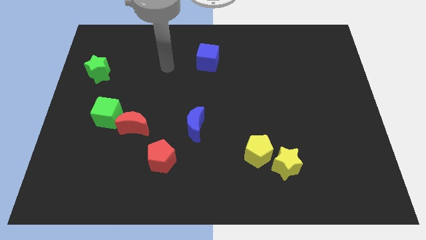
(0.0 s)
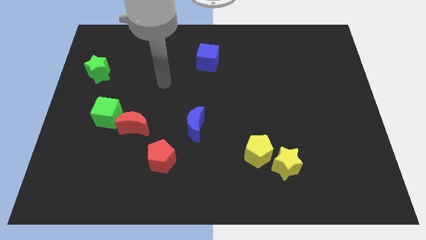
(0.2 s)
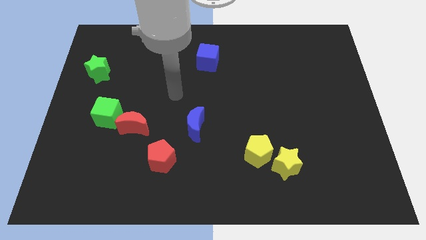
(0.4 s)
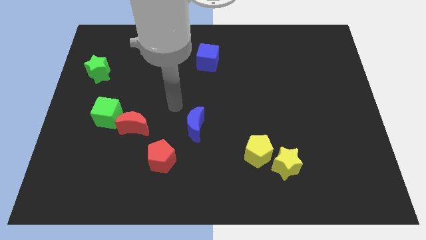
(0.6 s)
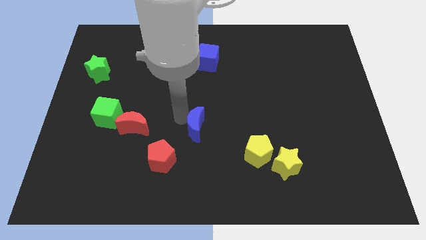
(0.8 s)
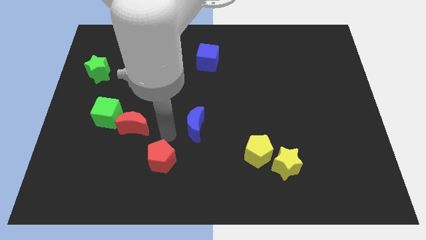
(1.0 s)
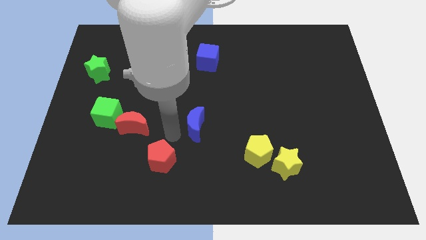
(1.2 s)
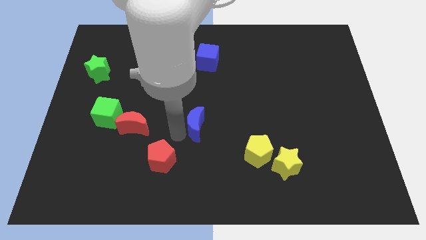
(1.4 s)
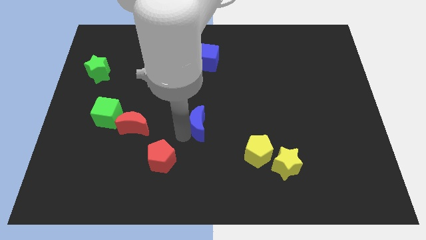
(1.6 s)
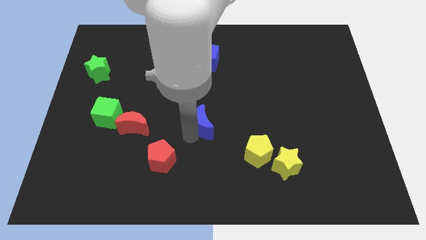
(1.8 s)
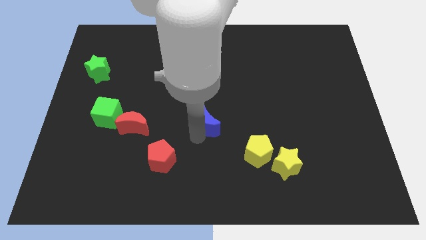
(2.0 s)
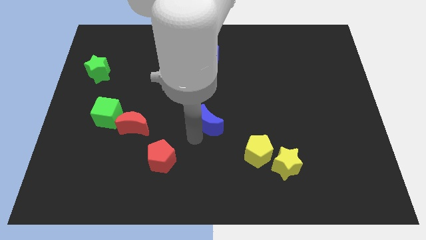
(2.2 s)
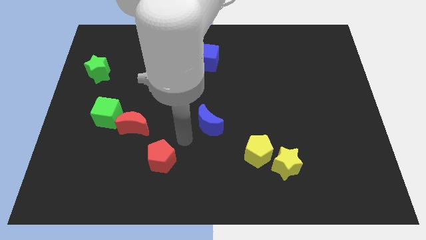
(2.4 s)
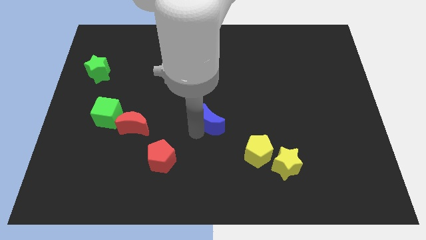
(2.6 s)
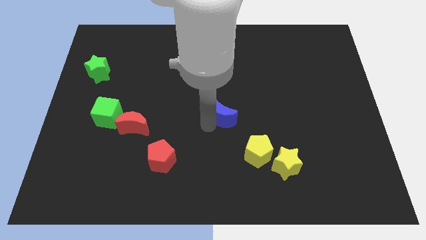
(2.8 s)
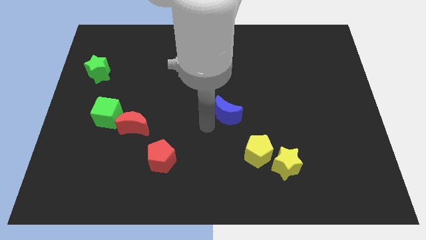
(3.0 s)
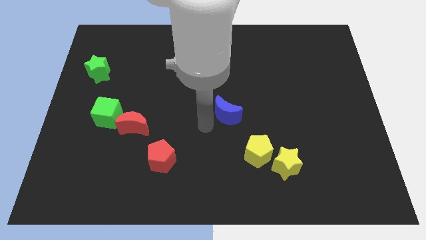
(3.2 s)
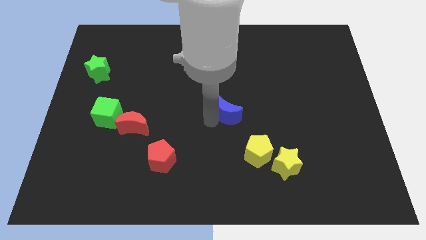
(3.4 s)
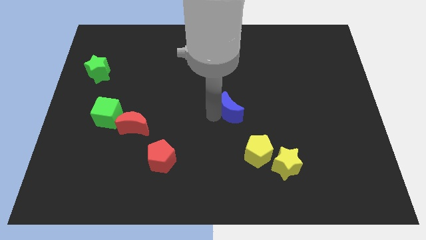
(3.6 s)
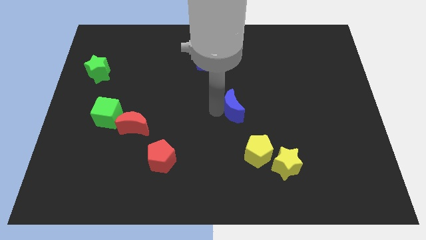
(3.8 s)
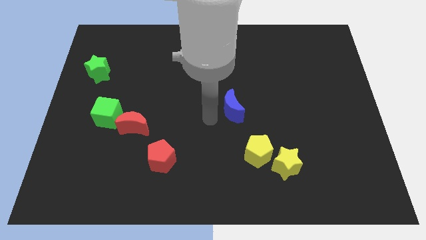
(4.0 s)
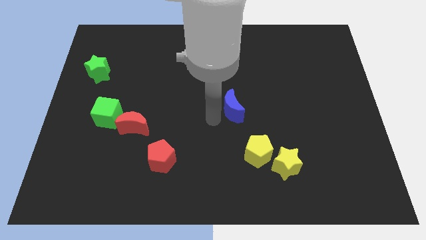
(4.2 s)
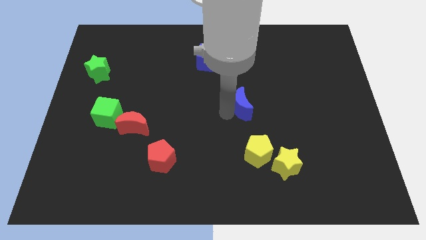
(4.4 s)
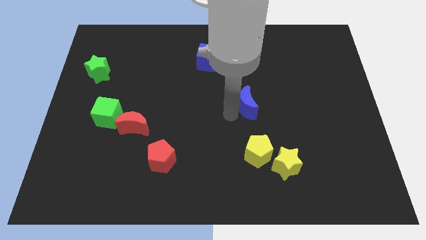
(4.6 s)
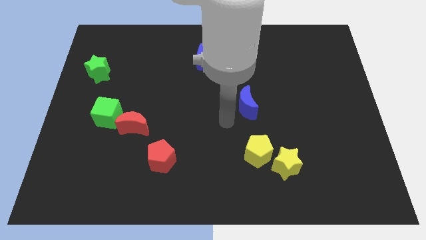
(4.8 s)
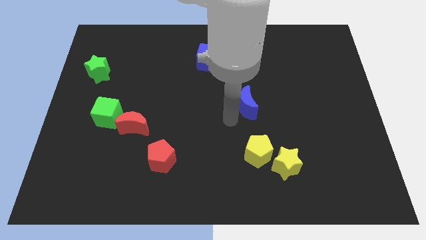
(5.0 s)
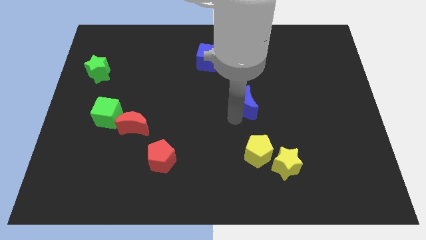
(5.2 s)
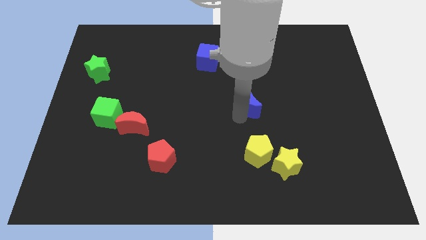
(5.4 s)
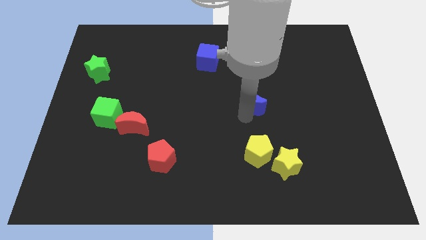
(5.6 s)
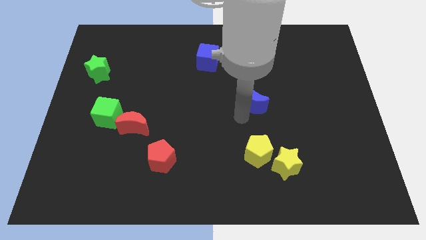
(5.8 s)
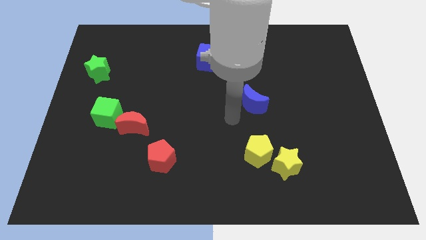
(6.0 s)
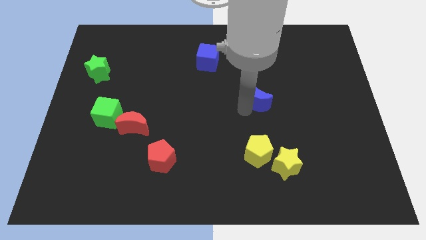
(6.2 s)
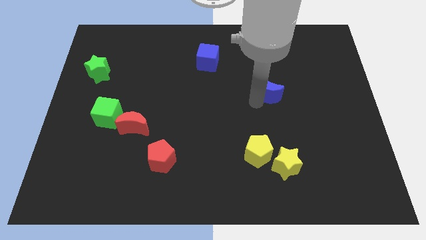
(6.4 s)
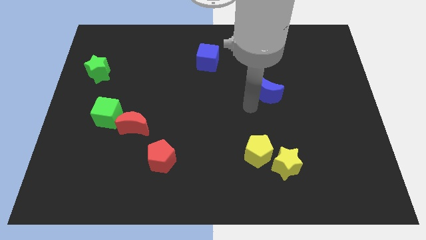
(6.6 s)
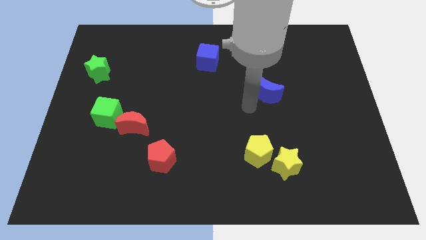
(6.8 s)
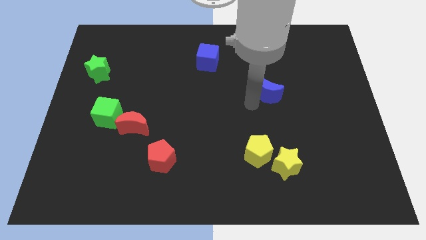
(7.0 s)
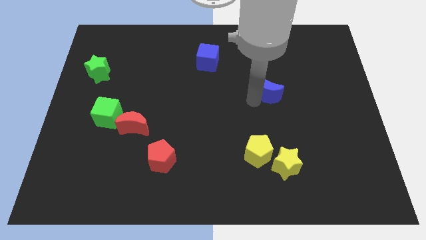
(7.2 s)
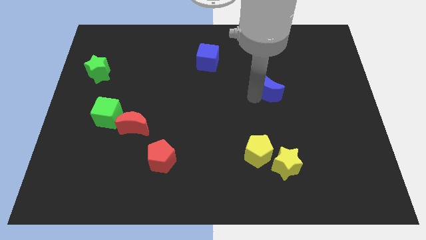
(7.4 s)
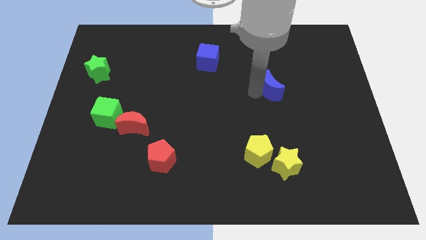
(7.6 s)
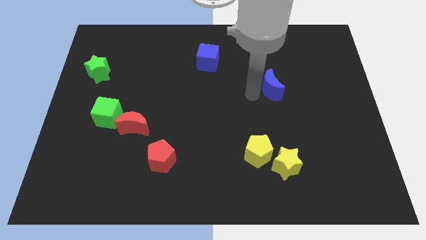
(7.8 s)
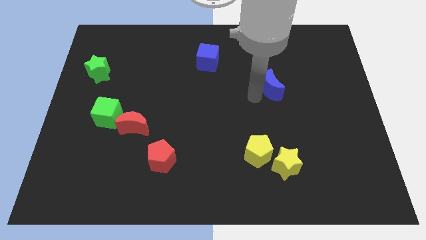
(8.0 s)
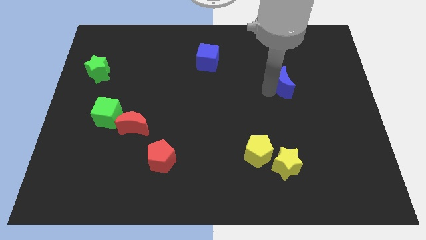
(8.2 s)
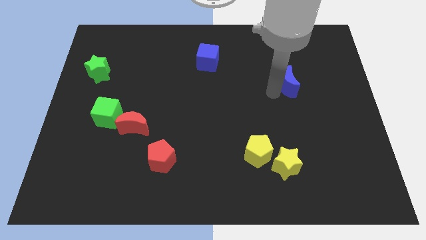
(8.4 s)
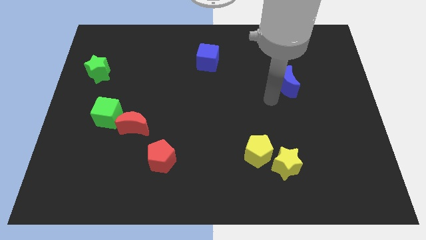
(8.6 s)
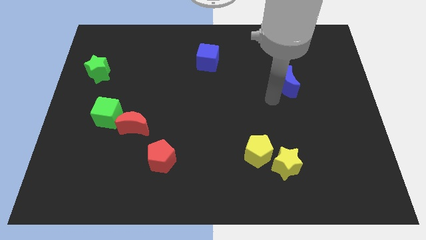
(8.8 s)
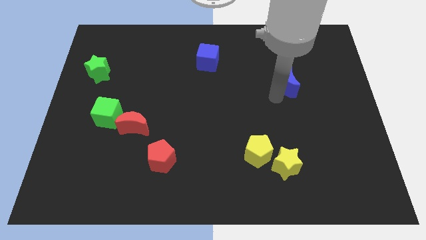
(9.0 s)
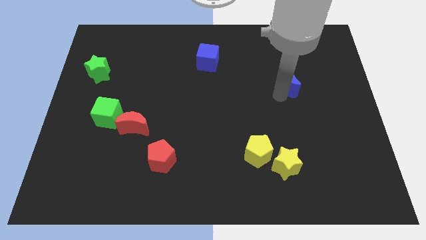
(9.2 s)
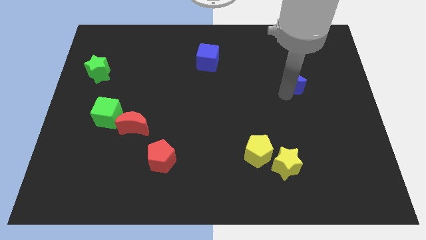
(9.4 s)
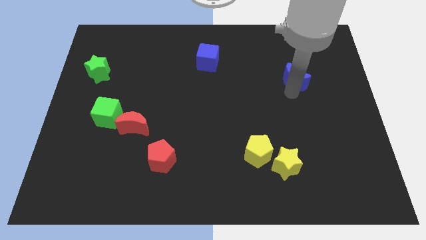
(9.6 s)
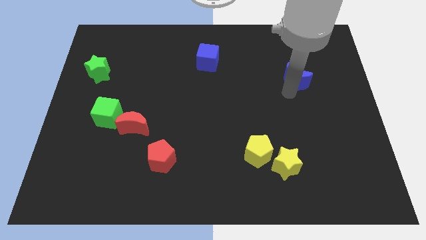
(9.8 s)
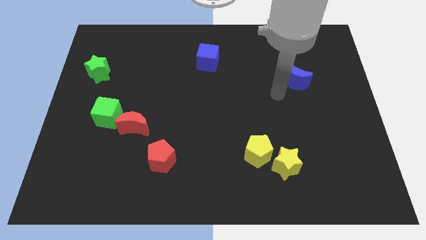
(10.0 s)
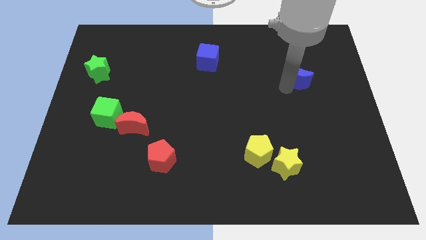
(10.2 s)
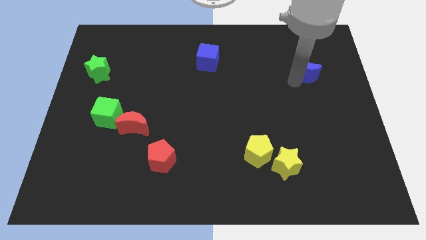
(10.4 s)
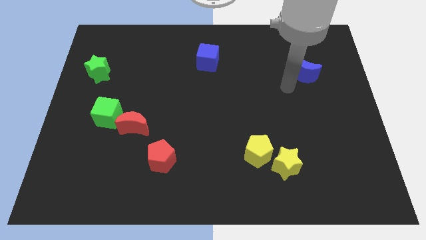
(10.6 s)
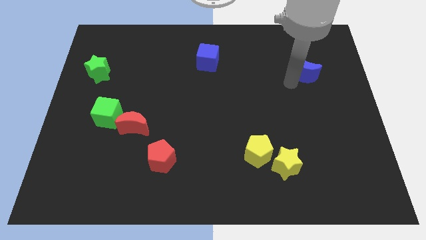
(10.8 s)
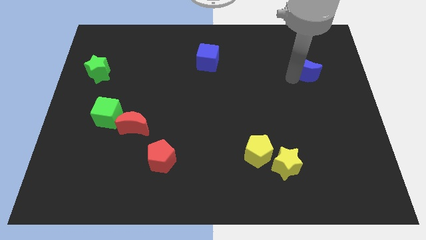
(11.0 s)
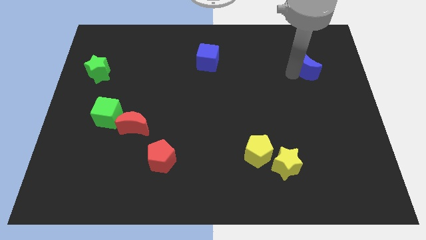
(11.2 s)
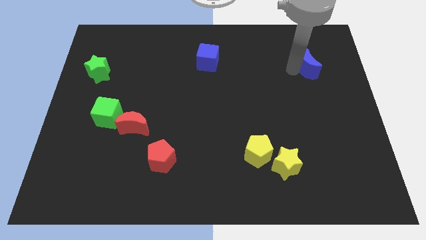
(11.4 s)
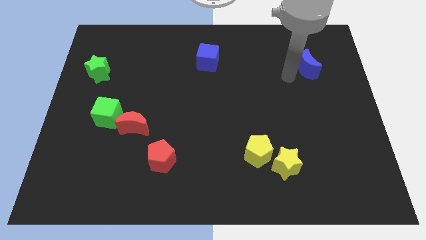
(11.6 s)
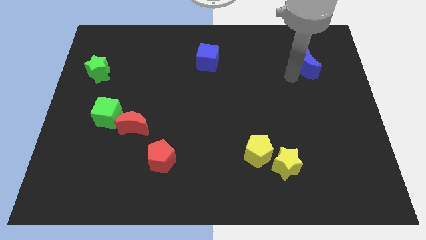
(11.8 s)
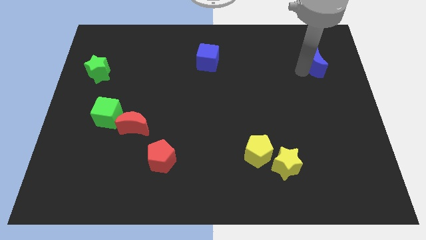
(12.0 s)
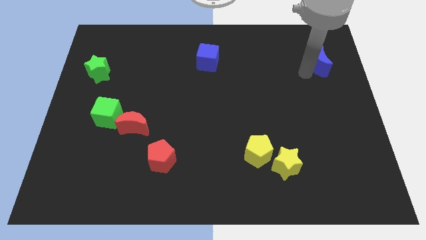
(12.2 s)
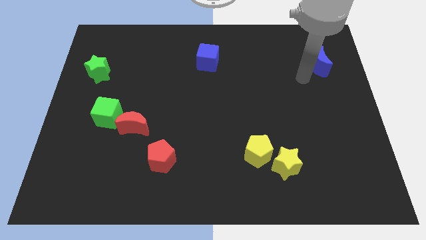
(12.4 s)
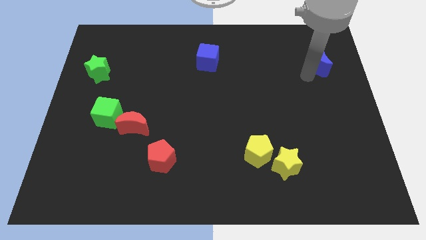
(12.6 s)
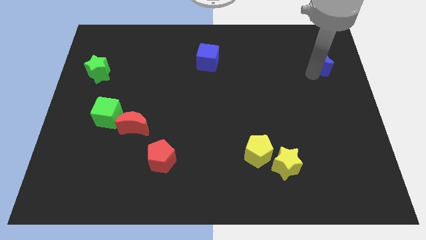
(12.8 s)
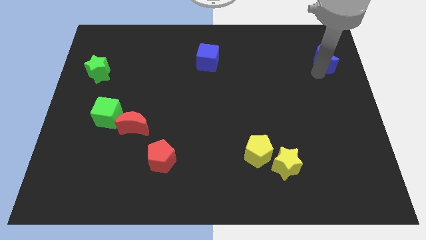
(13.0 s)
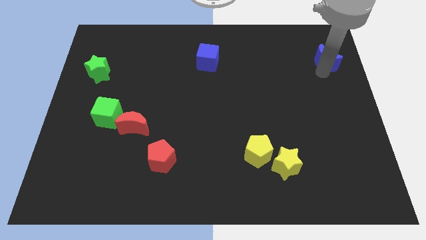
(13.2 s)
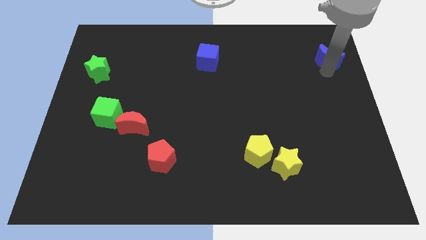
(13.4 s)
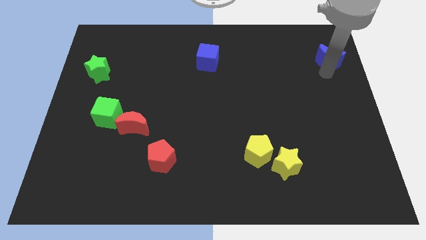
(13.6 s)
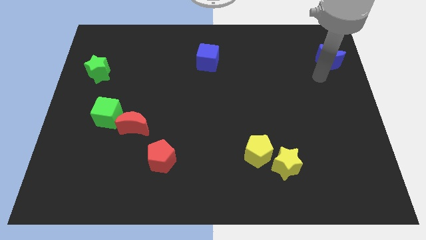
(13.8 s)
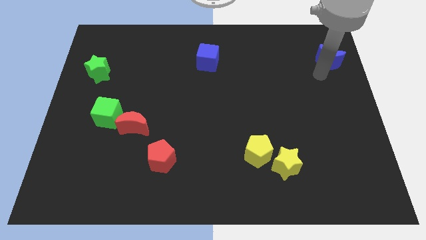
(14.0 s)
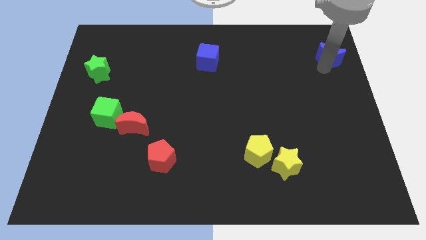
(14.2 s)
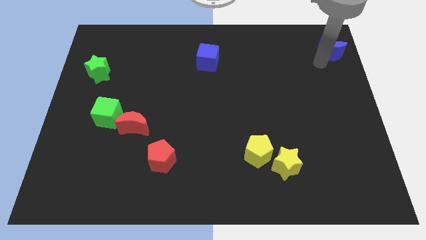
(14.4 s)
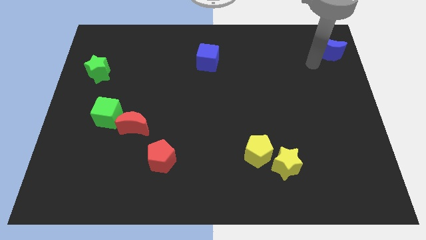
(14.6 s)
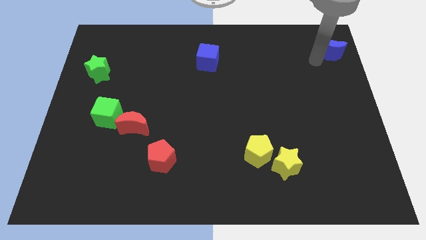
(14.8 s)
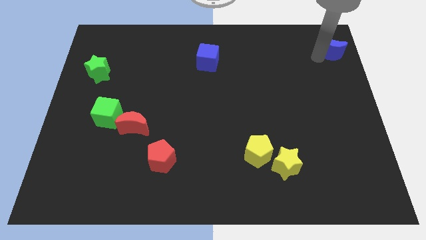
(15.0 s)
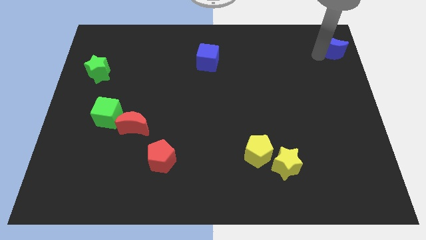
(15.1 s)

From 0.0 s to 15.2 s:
move the blue moon to the top right corner
